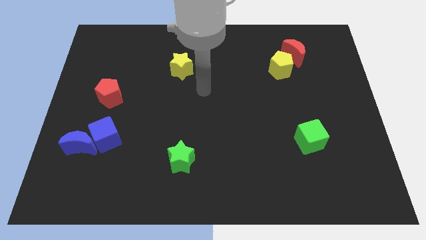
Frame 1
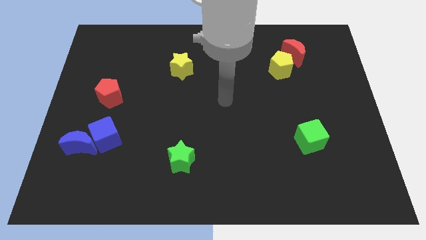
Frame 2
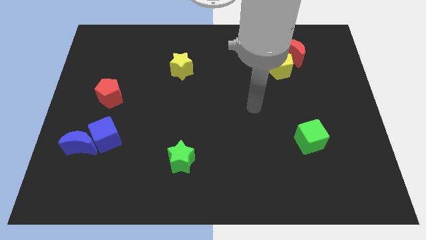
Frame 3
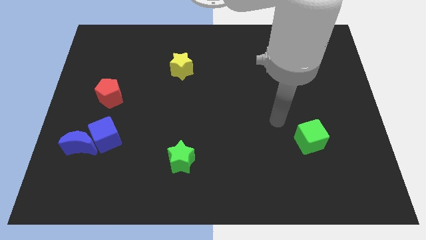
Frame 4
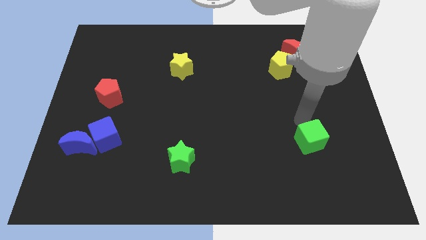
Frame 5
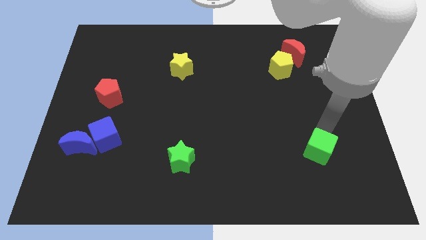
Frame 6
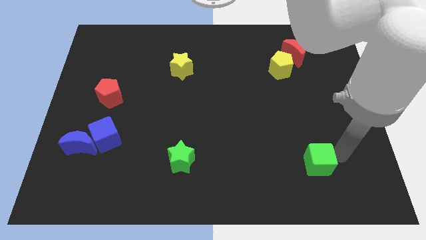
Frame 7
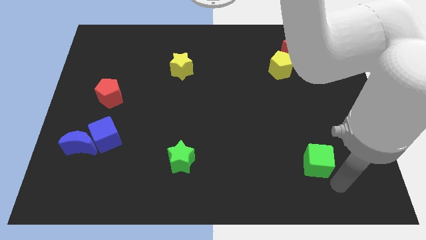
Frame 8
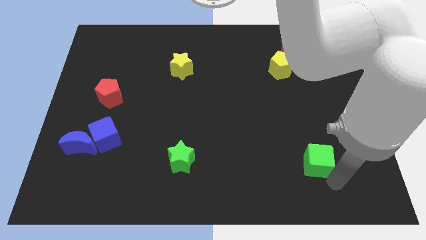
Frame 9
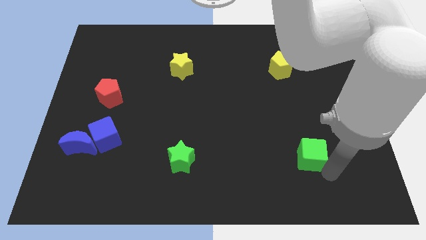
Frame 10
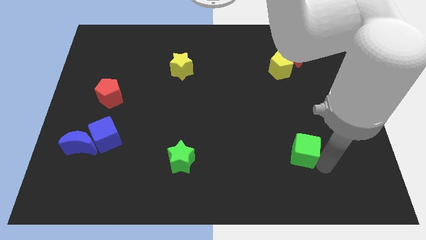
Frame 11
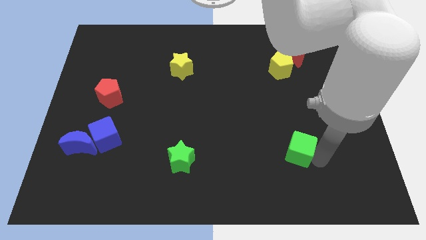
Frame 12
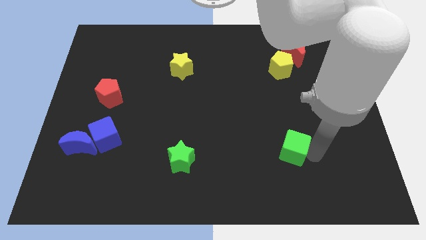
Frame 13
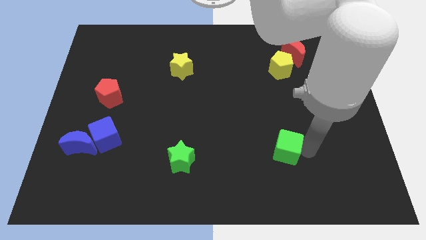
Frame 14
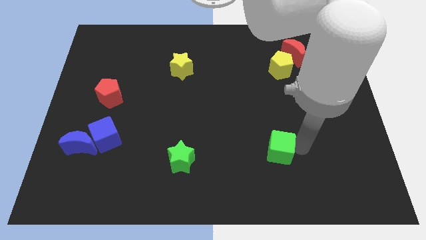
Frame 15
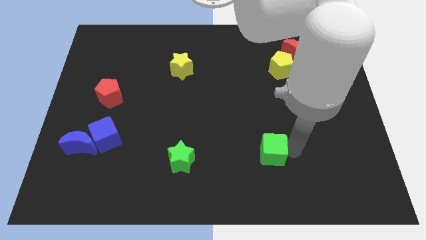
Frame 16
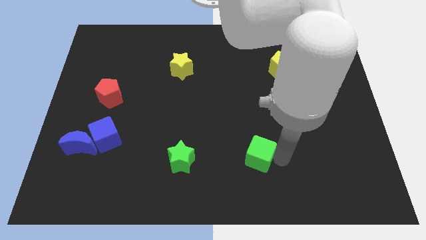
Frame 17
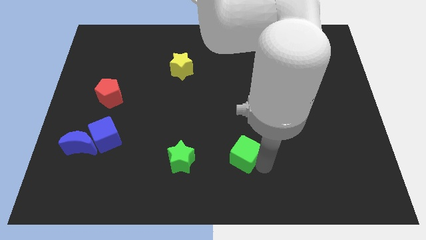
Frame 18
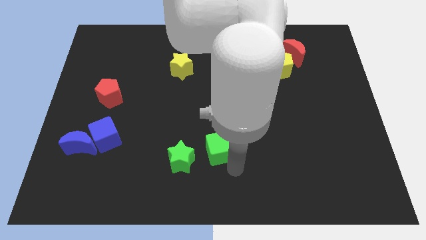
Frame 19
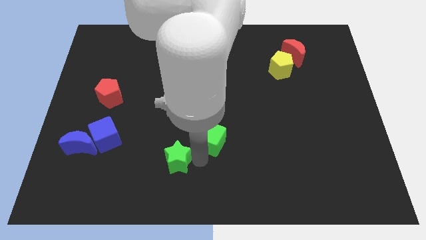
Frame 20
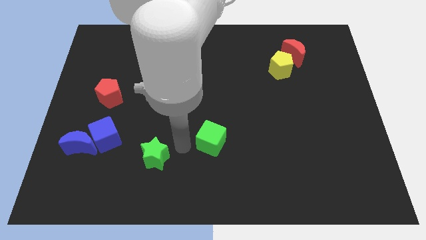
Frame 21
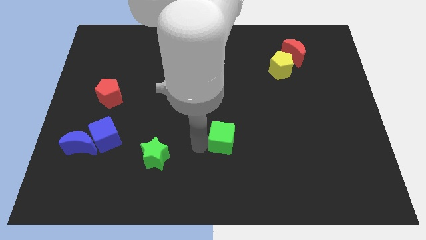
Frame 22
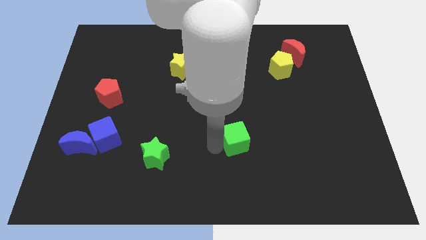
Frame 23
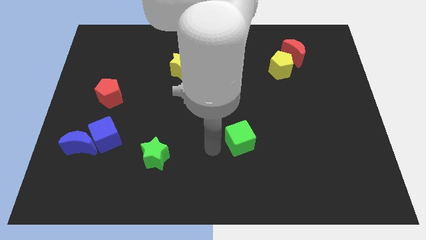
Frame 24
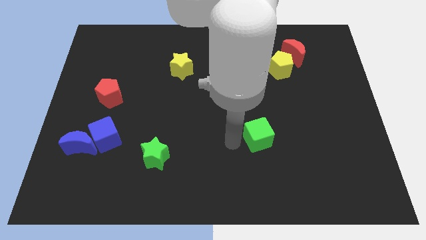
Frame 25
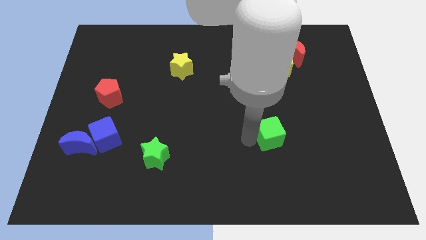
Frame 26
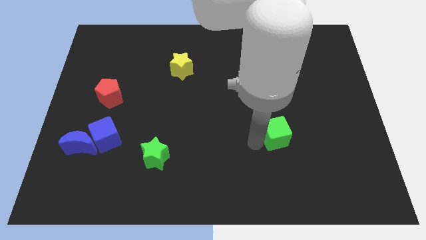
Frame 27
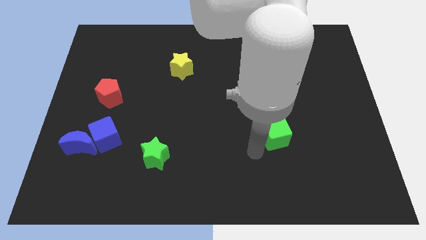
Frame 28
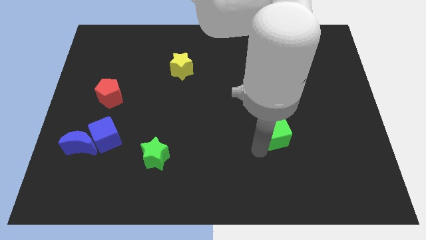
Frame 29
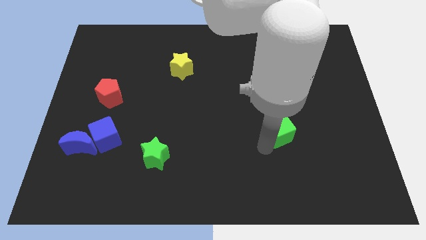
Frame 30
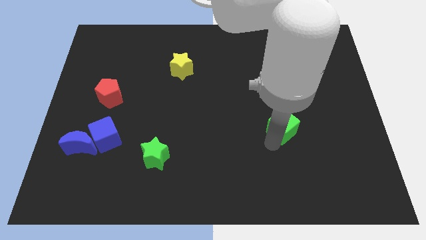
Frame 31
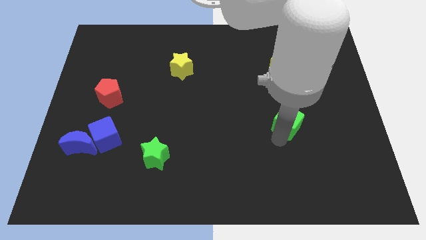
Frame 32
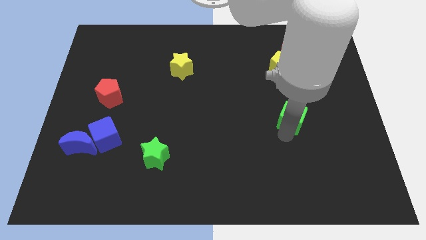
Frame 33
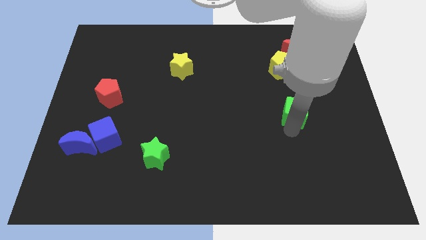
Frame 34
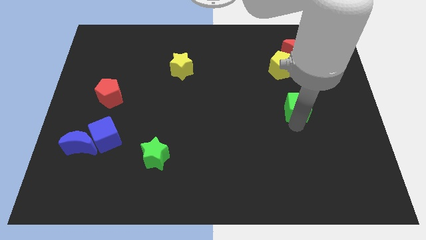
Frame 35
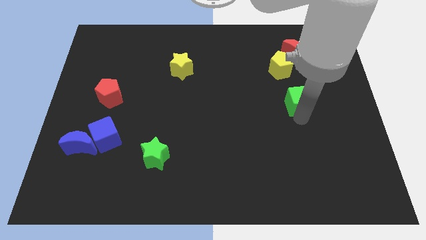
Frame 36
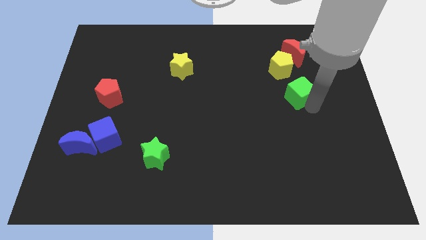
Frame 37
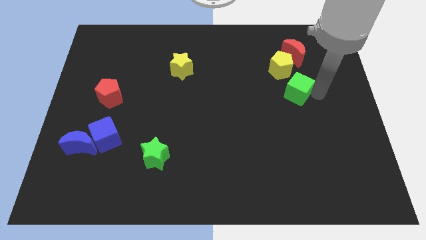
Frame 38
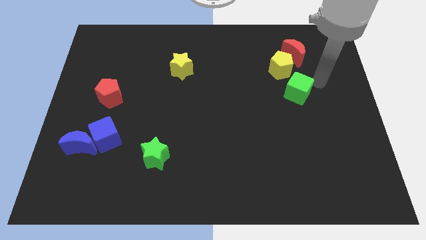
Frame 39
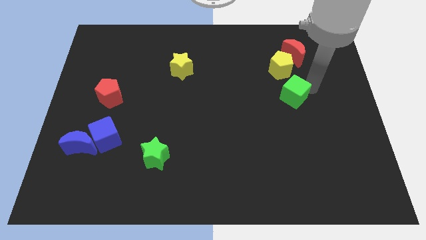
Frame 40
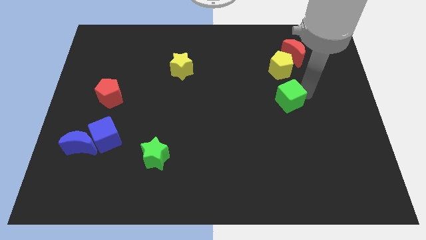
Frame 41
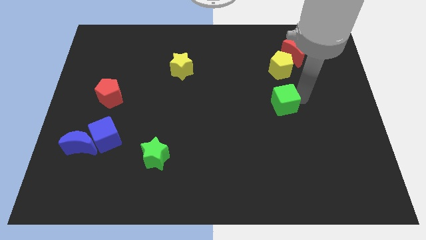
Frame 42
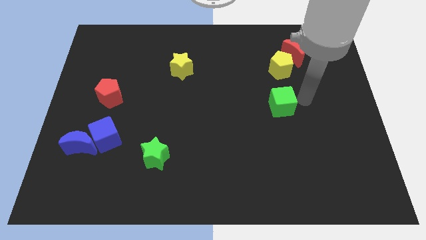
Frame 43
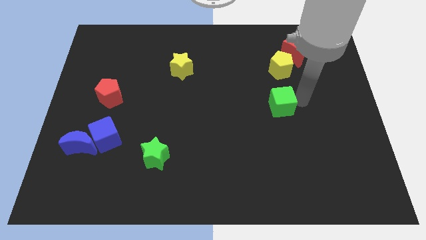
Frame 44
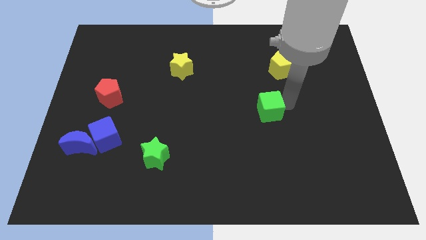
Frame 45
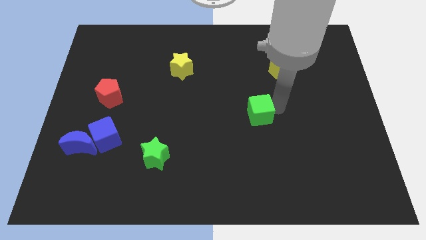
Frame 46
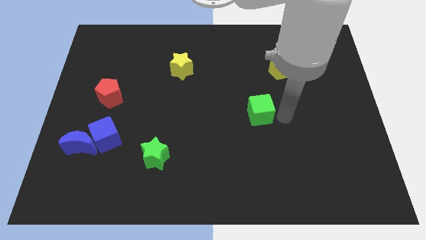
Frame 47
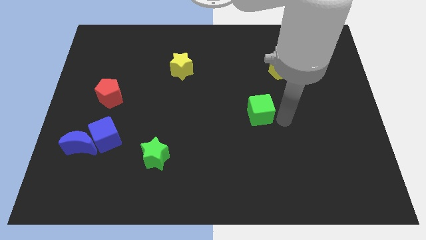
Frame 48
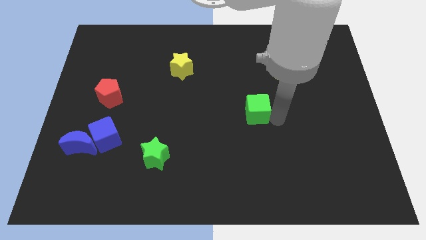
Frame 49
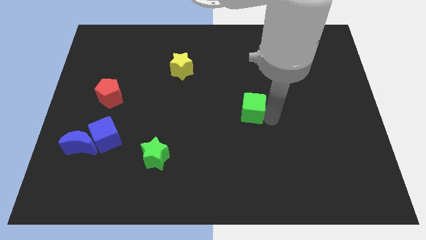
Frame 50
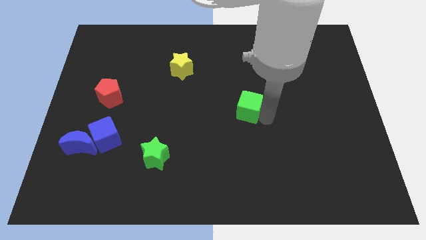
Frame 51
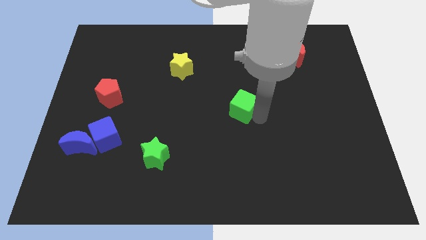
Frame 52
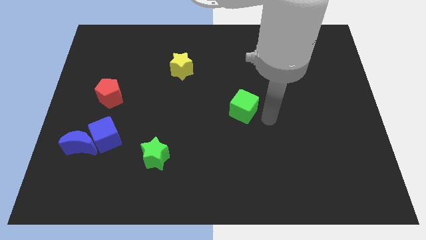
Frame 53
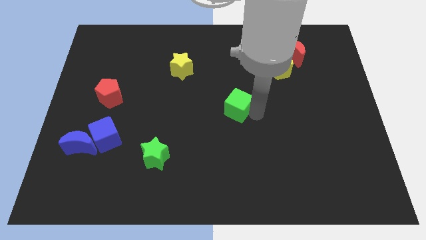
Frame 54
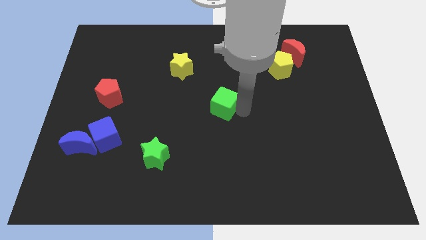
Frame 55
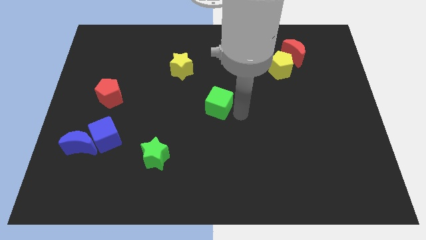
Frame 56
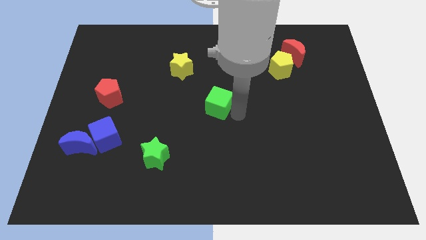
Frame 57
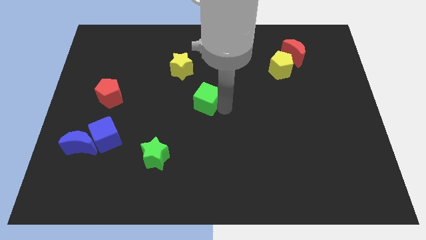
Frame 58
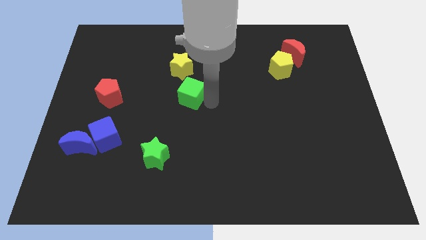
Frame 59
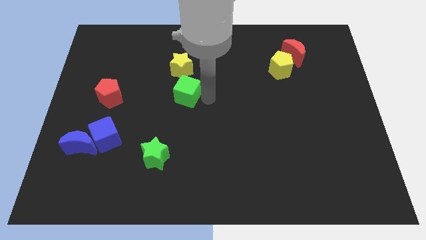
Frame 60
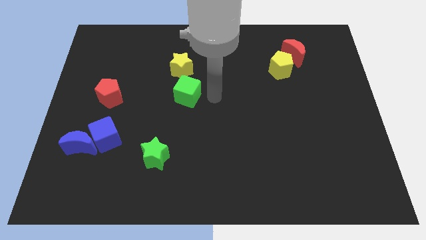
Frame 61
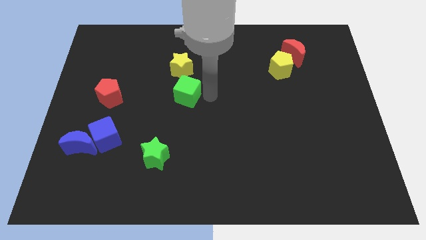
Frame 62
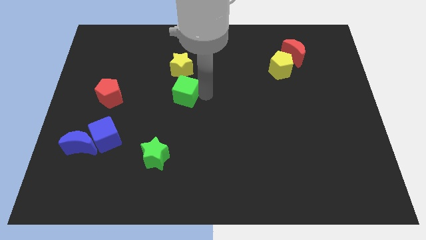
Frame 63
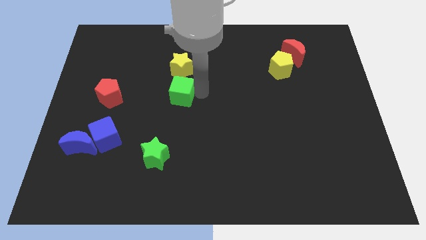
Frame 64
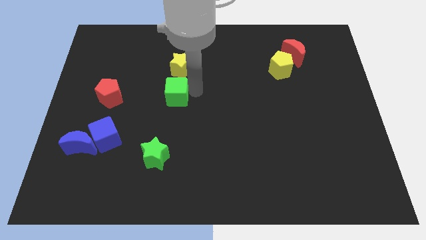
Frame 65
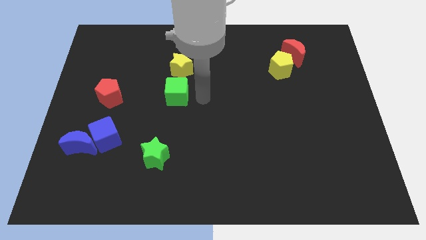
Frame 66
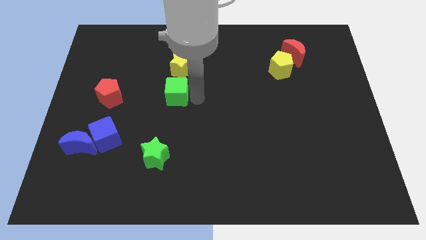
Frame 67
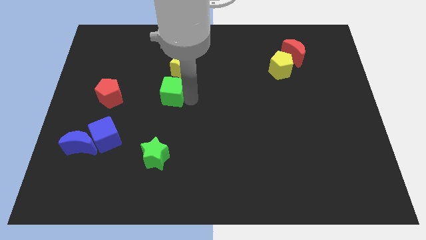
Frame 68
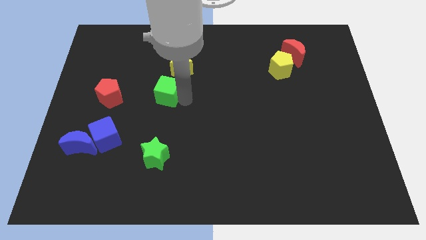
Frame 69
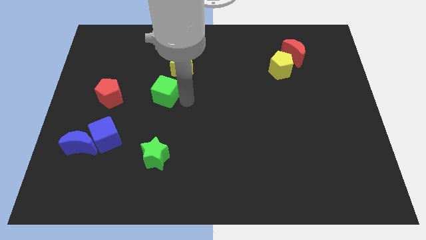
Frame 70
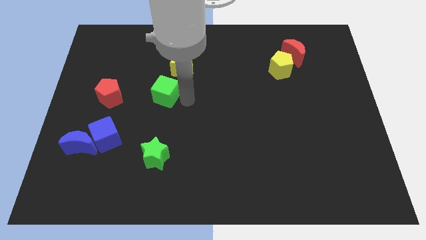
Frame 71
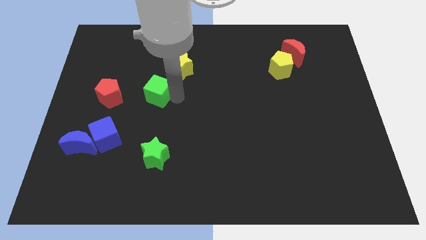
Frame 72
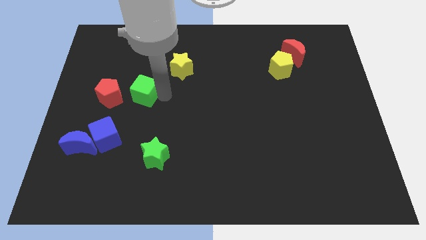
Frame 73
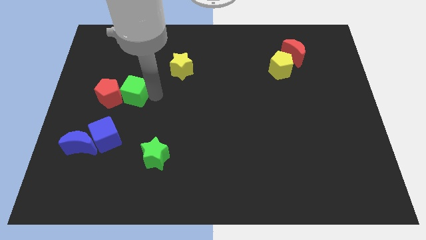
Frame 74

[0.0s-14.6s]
slide the green cube to the top of the blue cube
